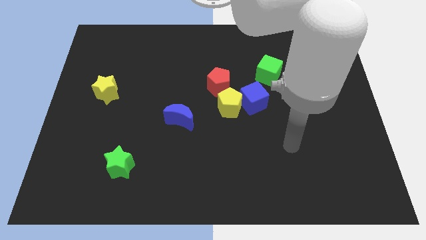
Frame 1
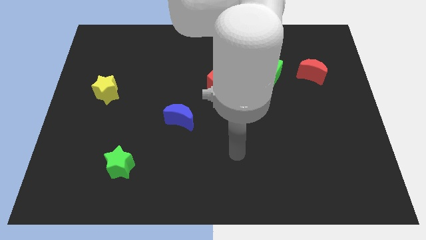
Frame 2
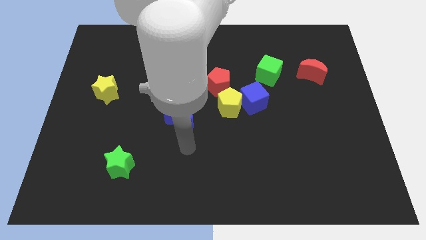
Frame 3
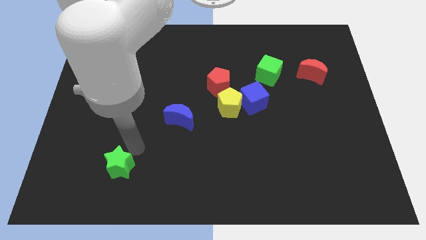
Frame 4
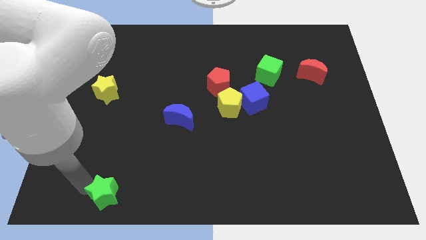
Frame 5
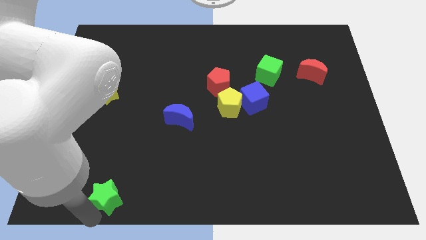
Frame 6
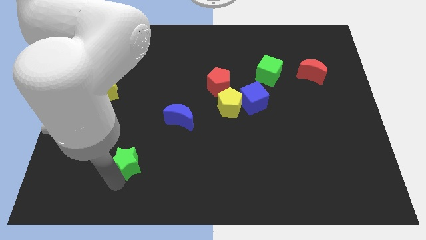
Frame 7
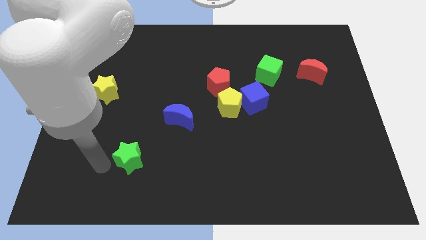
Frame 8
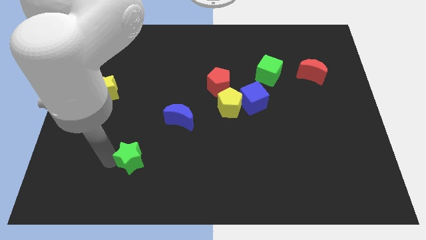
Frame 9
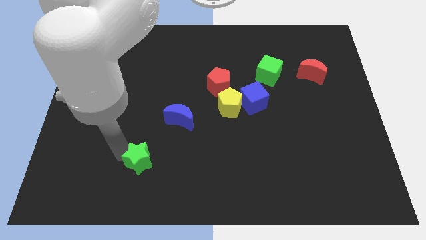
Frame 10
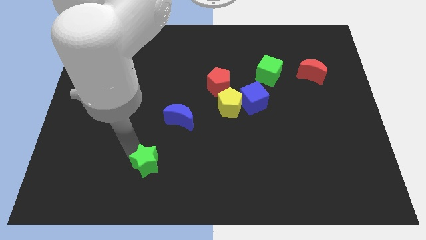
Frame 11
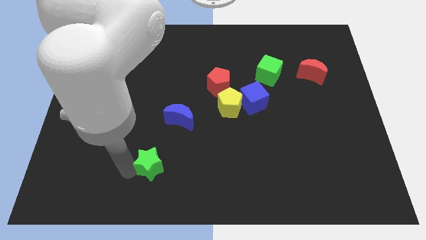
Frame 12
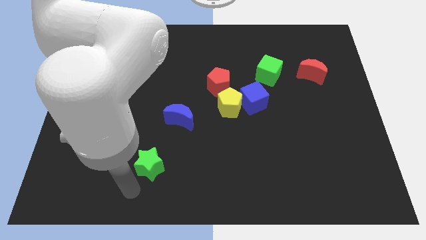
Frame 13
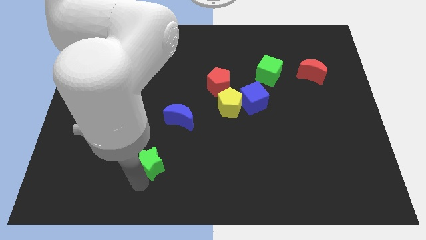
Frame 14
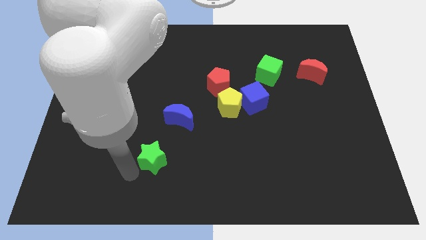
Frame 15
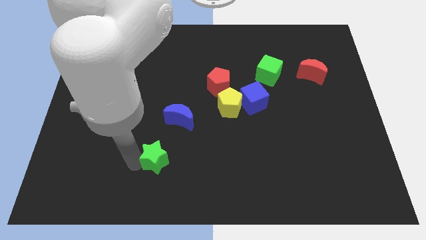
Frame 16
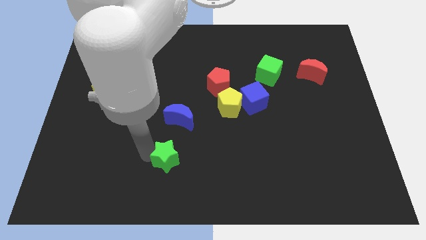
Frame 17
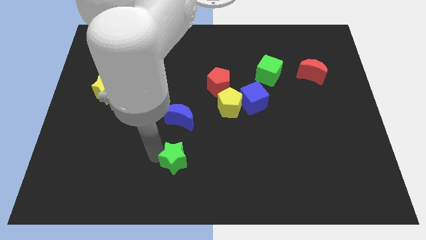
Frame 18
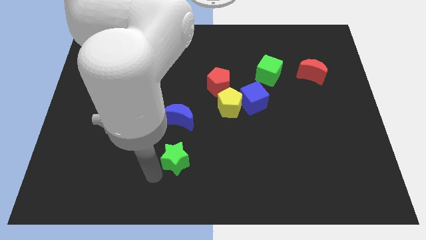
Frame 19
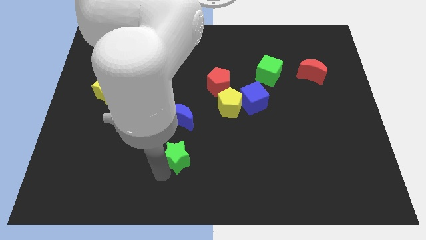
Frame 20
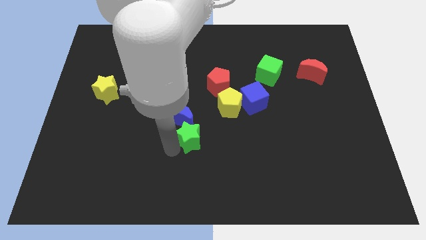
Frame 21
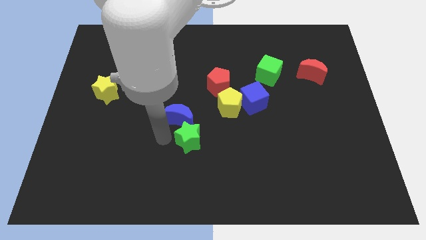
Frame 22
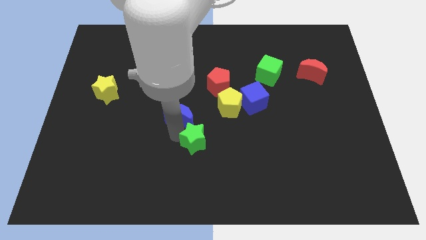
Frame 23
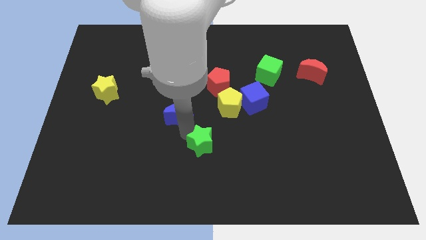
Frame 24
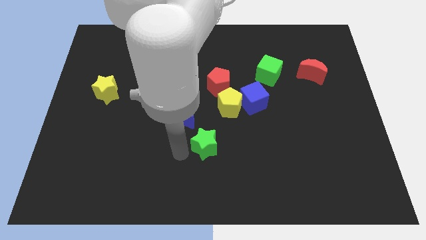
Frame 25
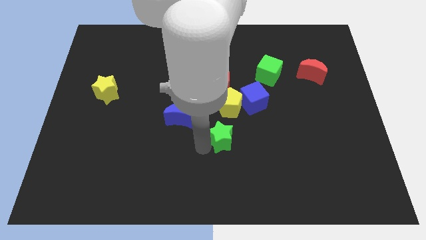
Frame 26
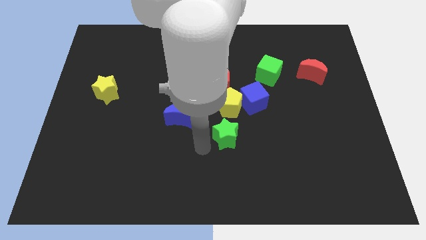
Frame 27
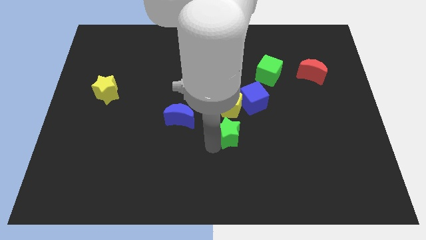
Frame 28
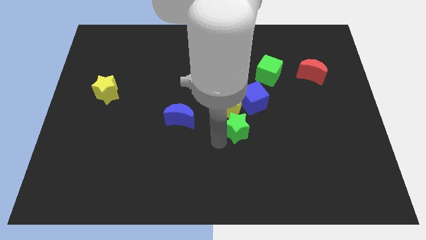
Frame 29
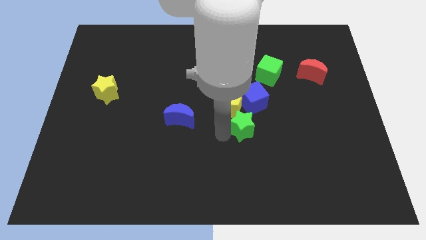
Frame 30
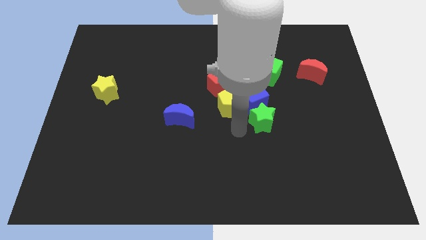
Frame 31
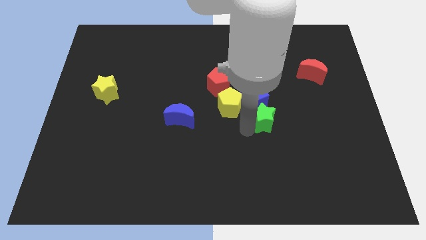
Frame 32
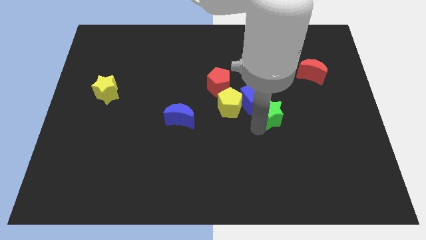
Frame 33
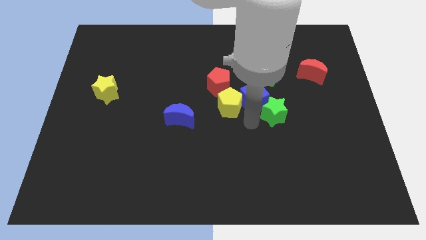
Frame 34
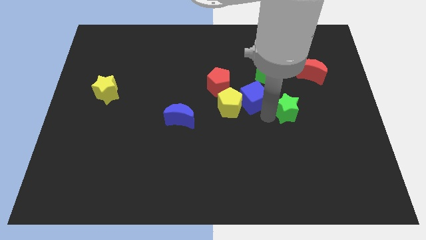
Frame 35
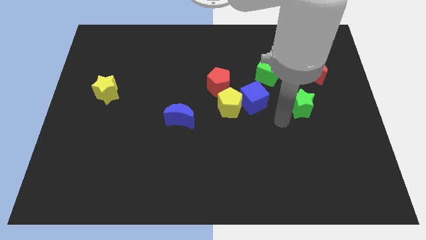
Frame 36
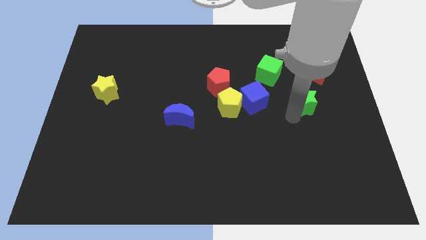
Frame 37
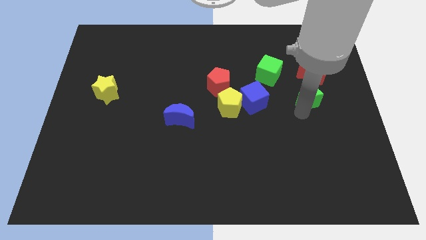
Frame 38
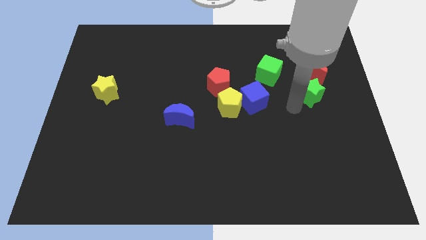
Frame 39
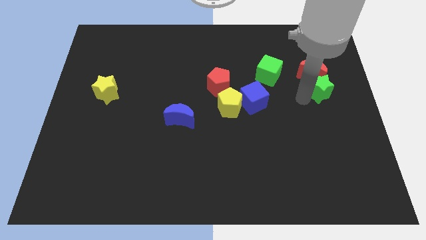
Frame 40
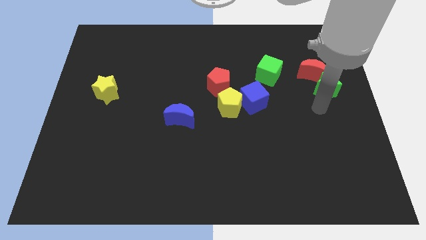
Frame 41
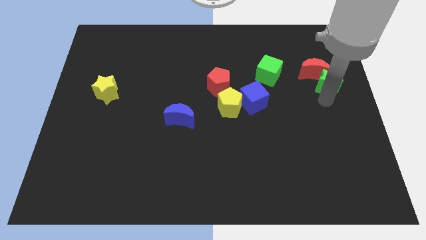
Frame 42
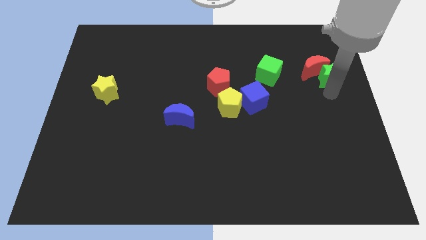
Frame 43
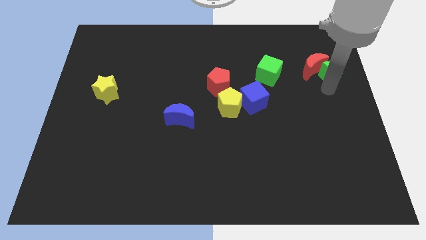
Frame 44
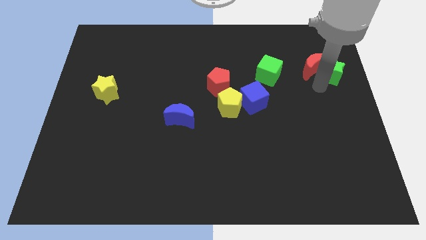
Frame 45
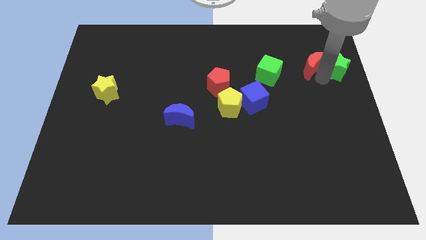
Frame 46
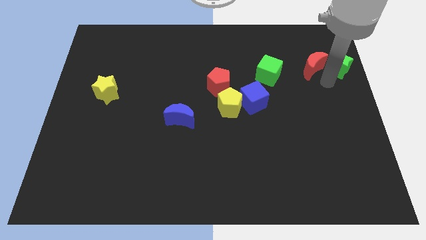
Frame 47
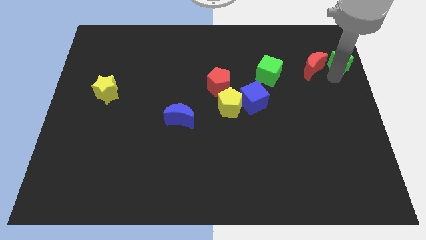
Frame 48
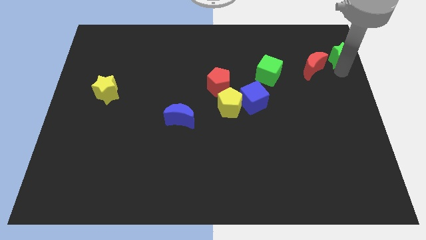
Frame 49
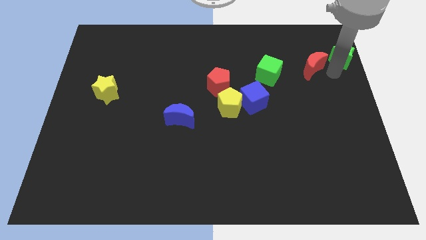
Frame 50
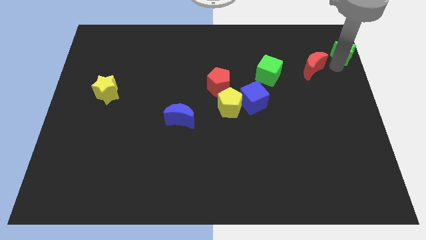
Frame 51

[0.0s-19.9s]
put the green star to the top right of the board
